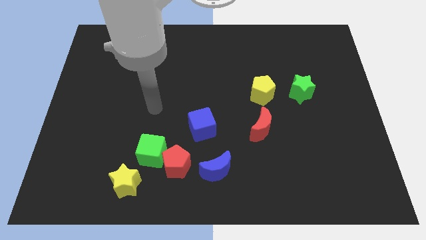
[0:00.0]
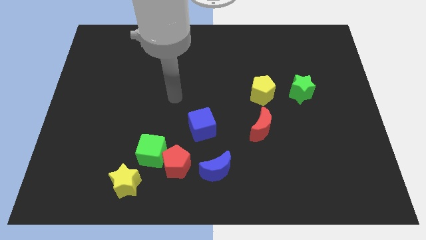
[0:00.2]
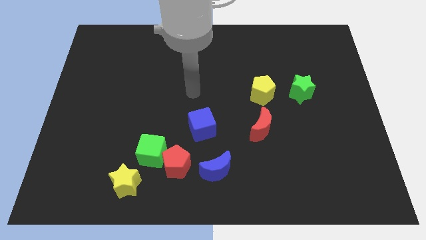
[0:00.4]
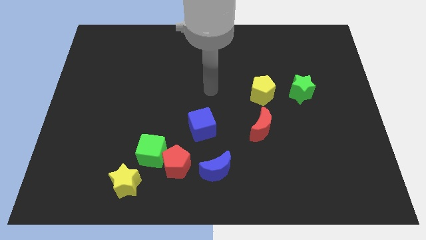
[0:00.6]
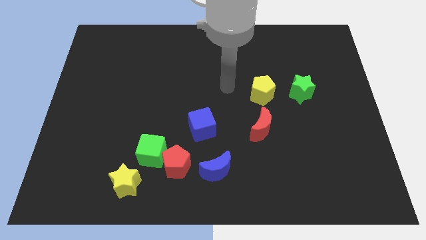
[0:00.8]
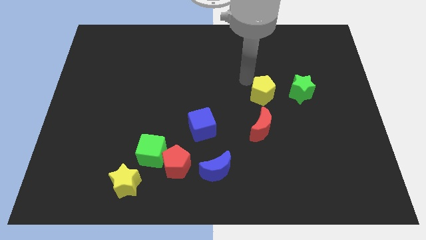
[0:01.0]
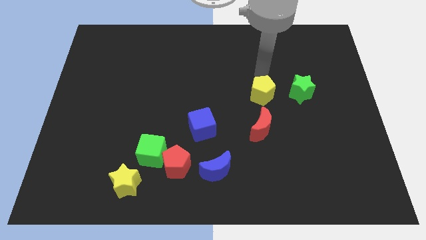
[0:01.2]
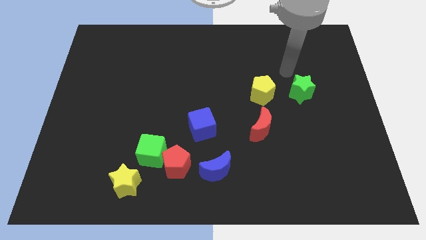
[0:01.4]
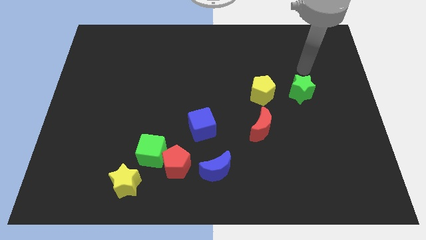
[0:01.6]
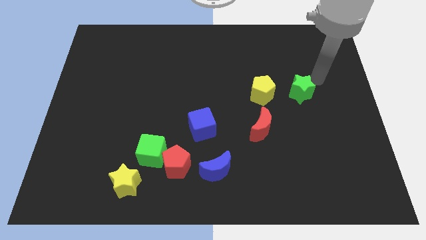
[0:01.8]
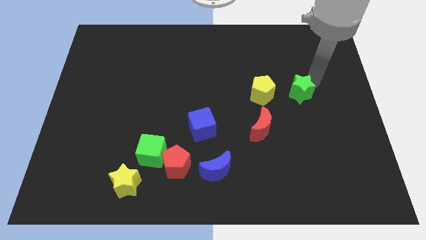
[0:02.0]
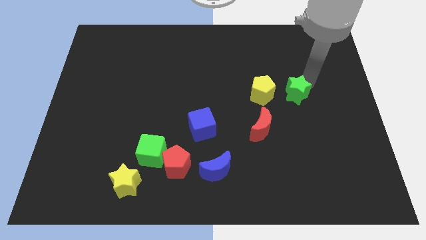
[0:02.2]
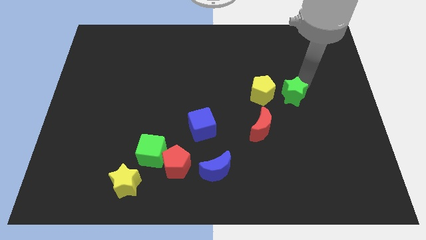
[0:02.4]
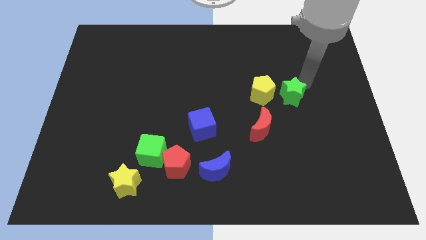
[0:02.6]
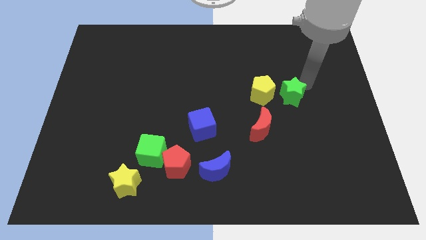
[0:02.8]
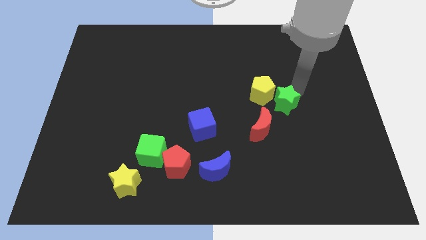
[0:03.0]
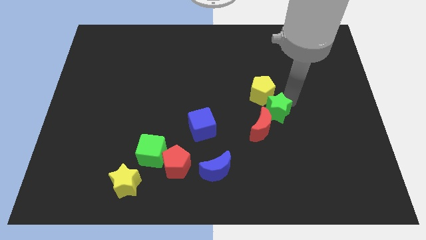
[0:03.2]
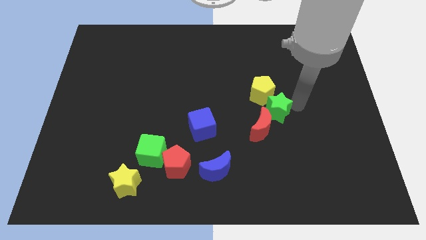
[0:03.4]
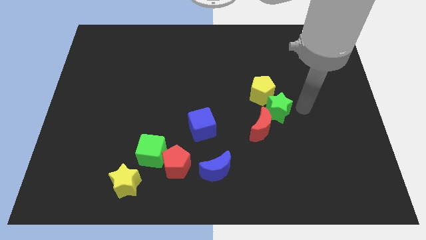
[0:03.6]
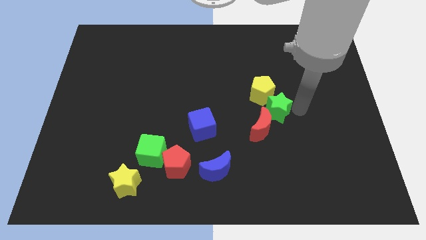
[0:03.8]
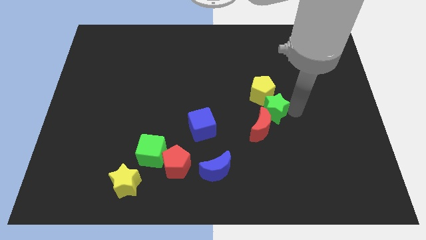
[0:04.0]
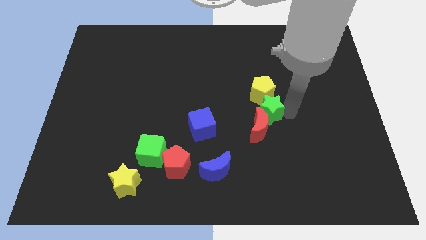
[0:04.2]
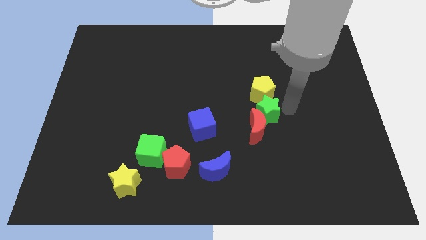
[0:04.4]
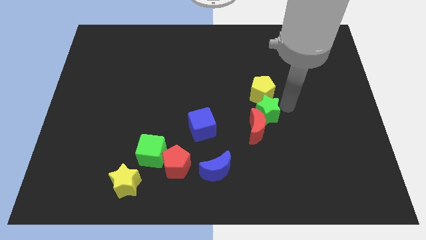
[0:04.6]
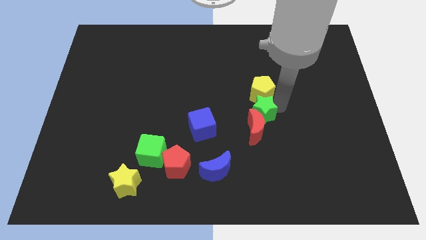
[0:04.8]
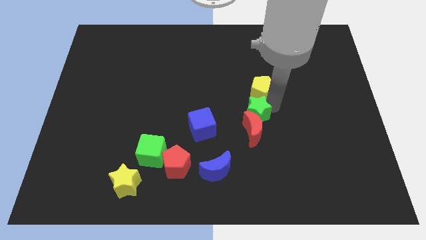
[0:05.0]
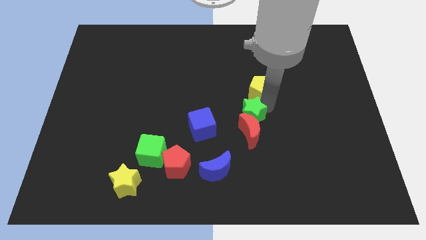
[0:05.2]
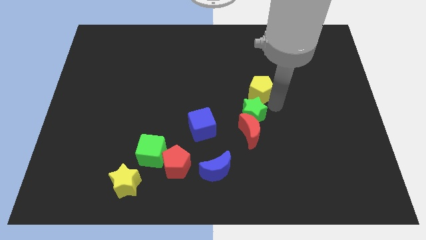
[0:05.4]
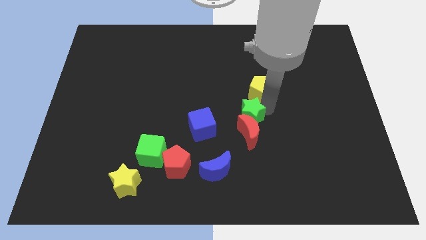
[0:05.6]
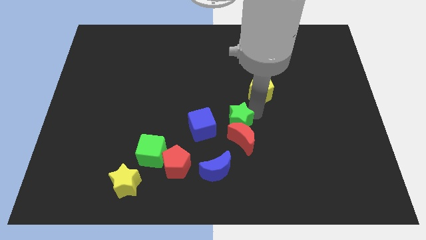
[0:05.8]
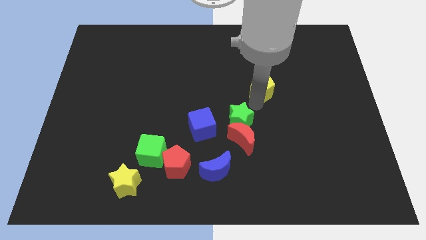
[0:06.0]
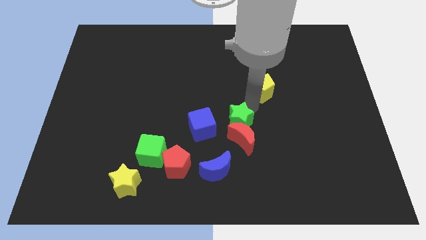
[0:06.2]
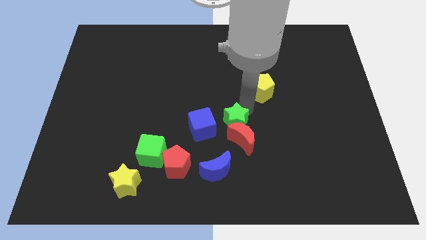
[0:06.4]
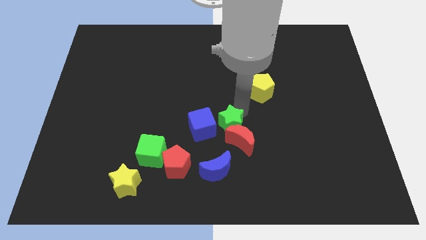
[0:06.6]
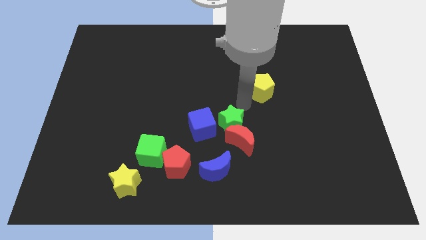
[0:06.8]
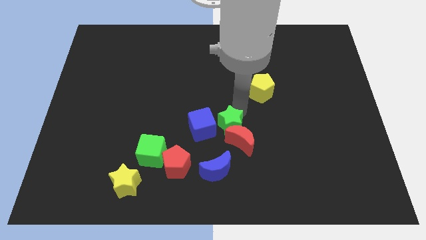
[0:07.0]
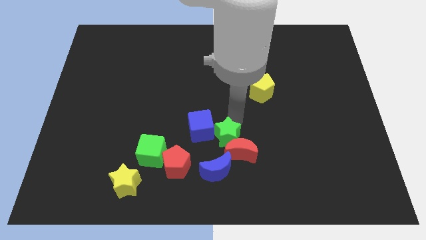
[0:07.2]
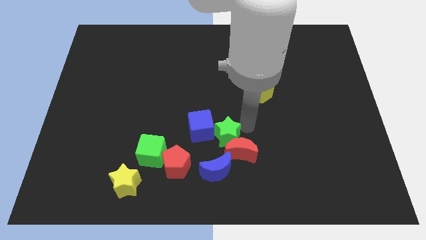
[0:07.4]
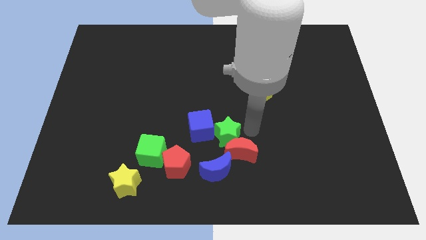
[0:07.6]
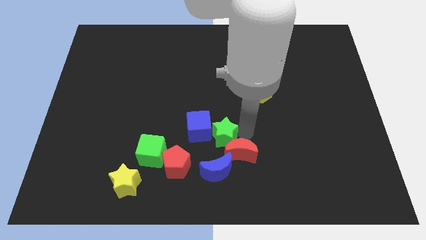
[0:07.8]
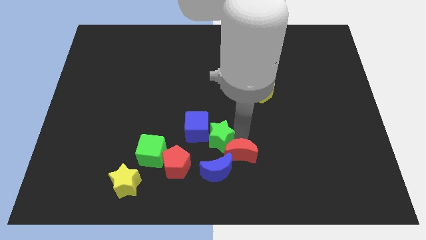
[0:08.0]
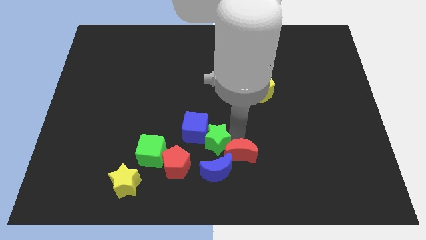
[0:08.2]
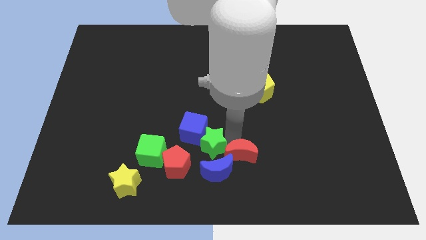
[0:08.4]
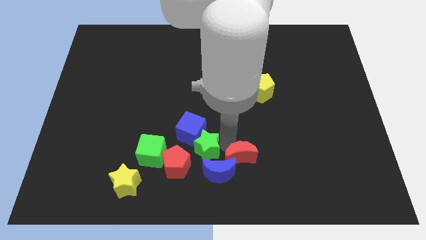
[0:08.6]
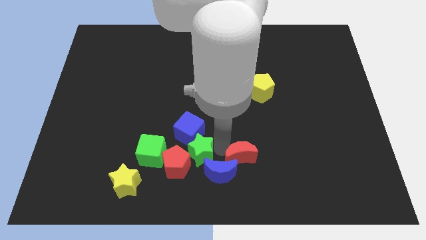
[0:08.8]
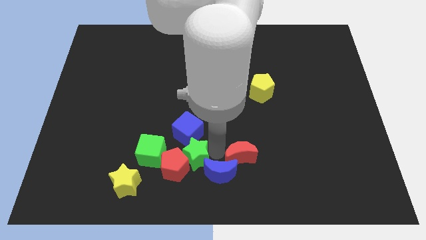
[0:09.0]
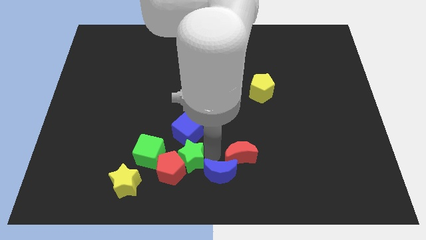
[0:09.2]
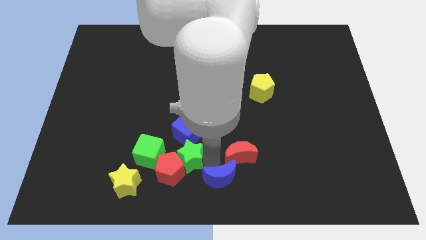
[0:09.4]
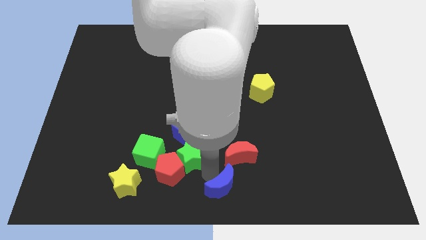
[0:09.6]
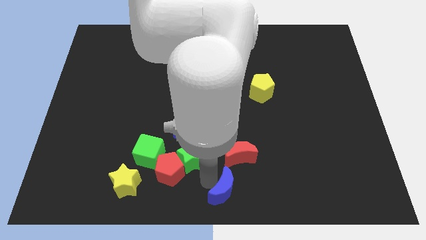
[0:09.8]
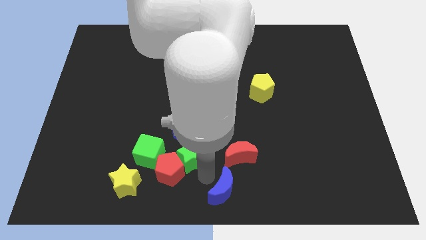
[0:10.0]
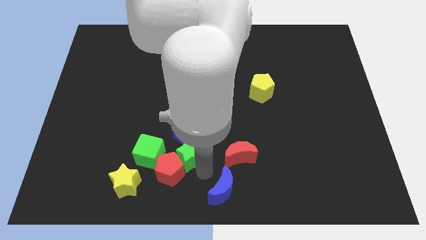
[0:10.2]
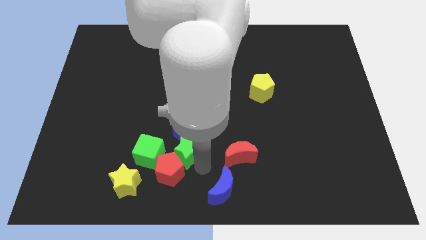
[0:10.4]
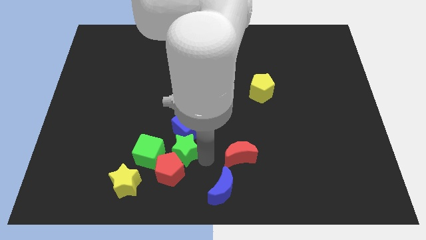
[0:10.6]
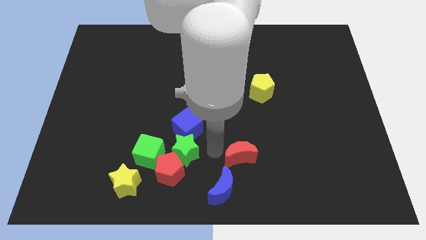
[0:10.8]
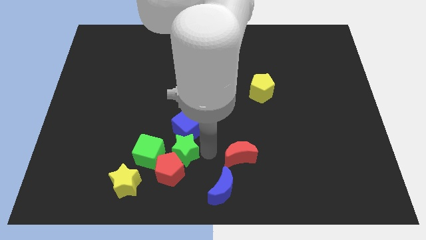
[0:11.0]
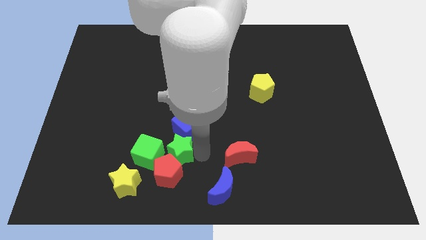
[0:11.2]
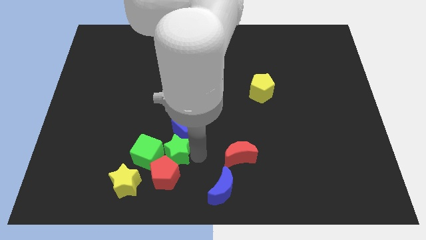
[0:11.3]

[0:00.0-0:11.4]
move the green star towards the green cube

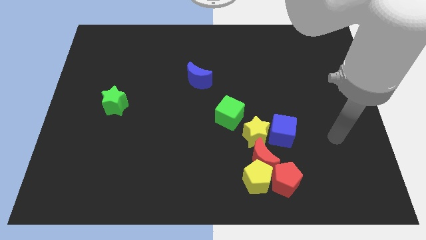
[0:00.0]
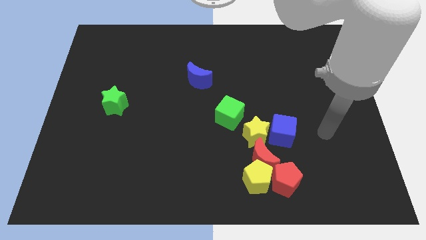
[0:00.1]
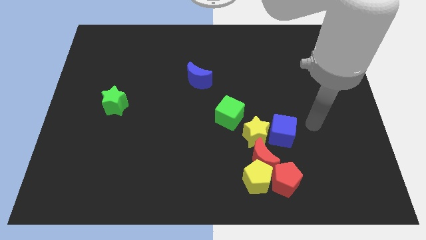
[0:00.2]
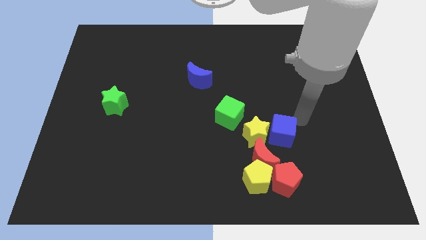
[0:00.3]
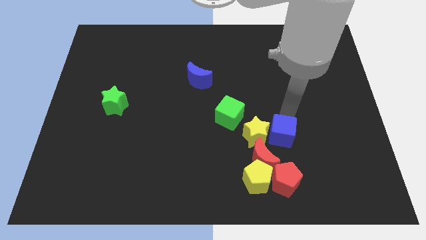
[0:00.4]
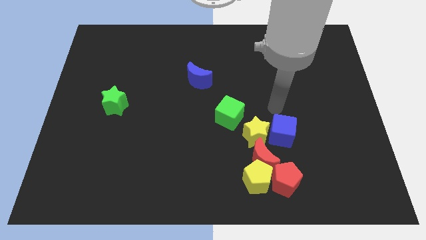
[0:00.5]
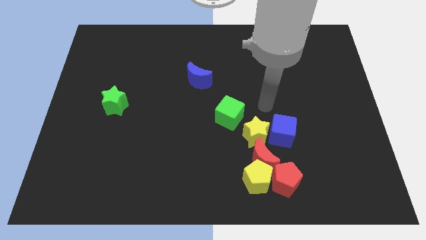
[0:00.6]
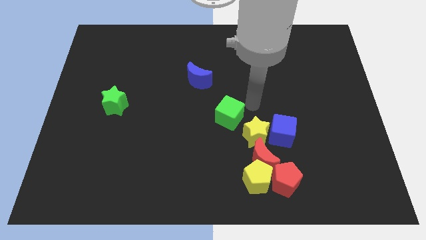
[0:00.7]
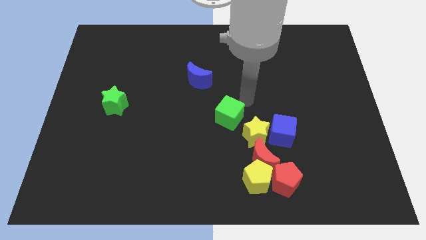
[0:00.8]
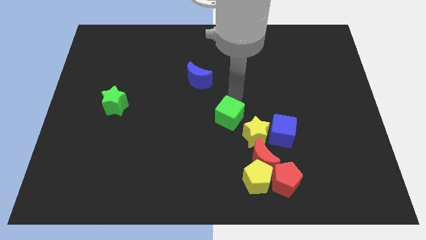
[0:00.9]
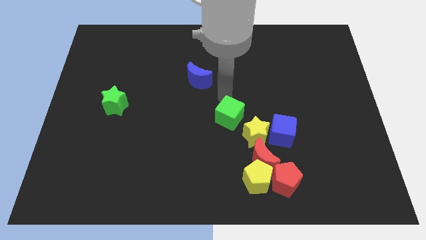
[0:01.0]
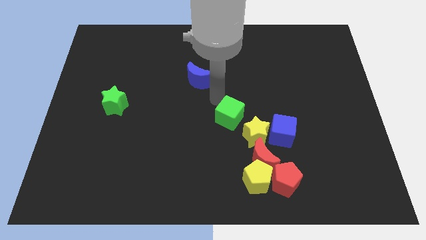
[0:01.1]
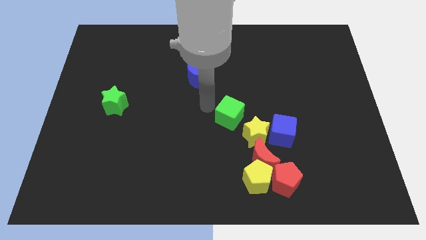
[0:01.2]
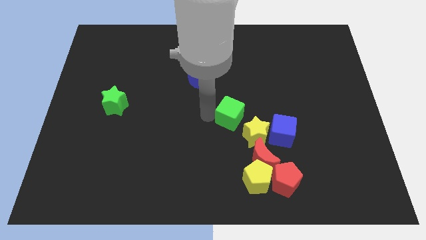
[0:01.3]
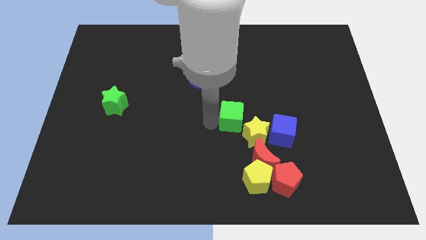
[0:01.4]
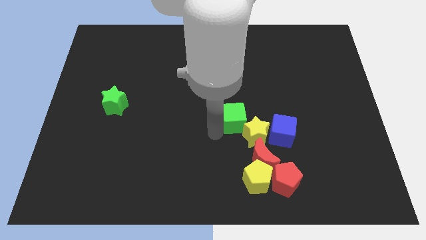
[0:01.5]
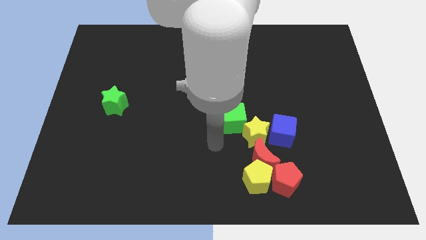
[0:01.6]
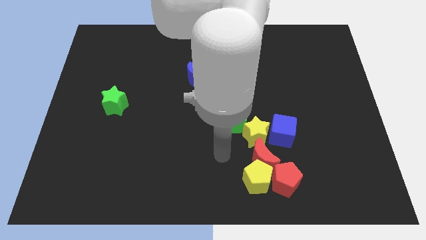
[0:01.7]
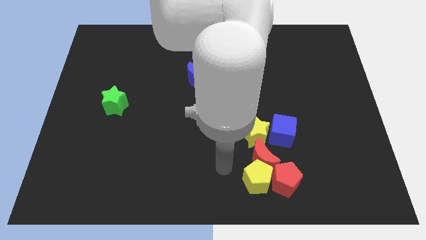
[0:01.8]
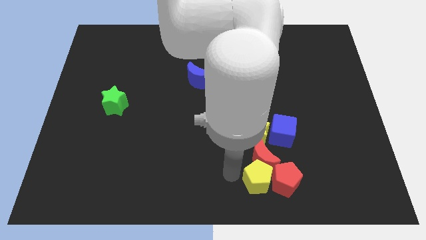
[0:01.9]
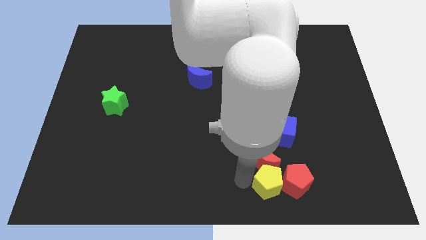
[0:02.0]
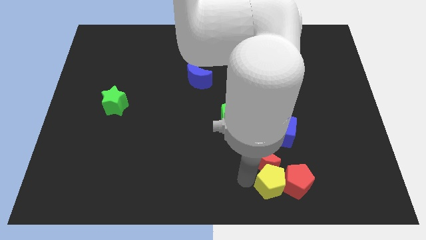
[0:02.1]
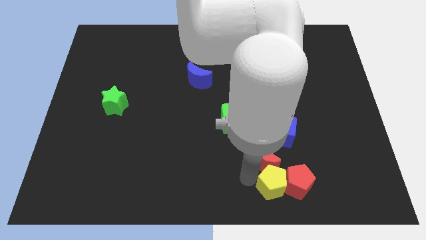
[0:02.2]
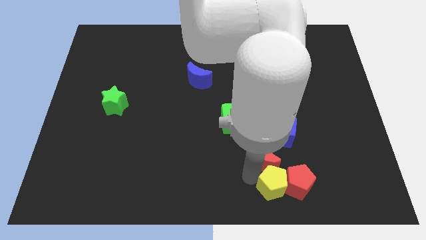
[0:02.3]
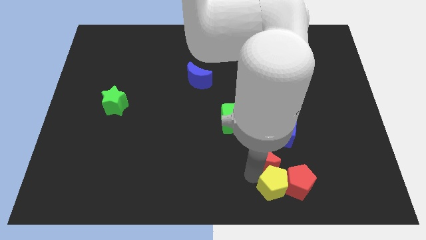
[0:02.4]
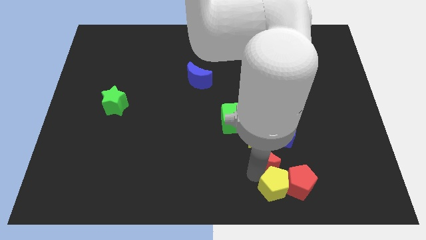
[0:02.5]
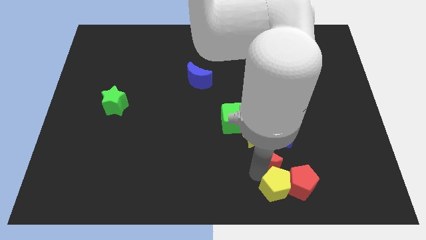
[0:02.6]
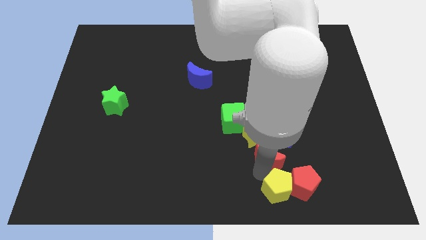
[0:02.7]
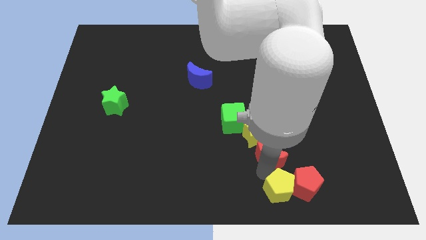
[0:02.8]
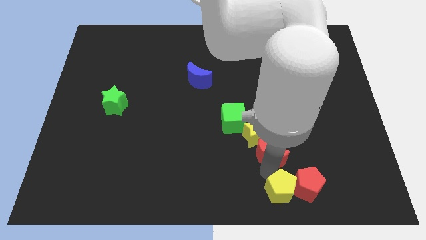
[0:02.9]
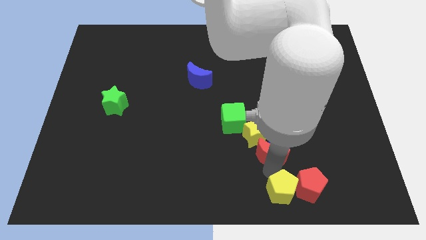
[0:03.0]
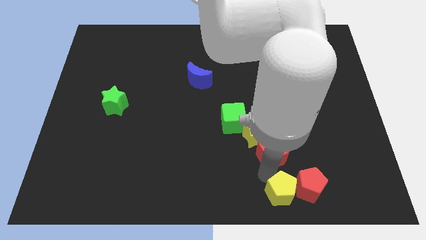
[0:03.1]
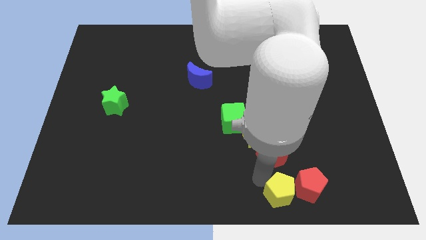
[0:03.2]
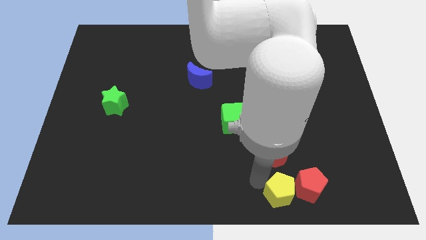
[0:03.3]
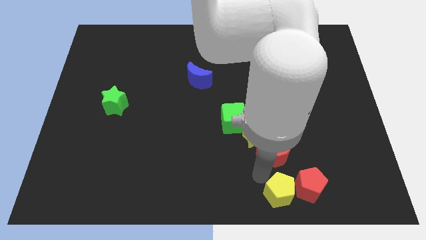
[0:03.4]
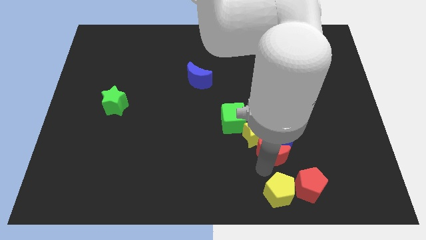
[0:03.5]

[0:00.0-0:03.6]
slide the red moon close to the blue cube
